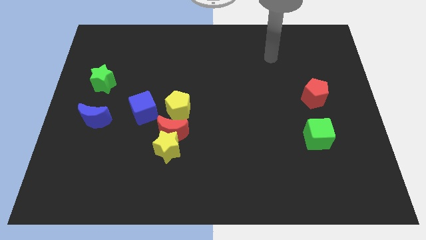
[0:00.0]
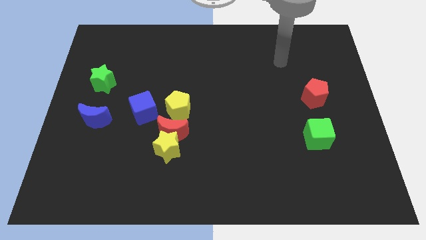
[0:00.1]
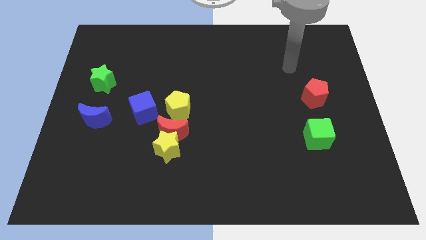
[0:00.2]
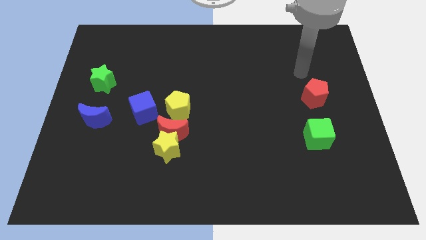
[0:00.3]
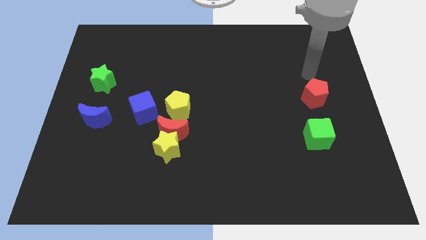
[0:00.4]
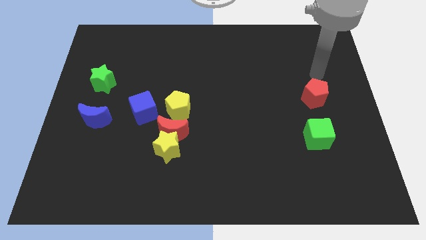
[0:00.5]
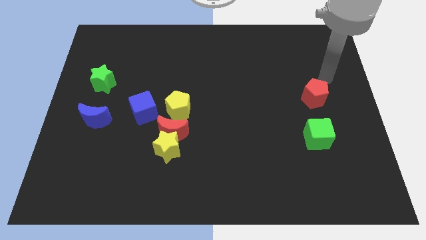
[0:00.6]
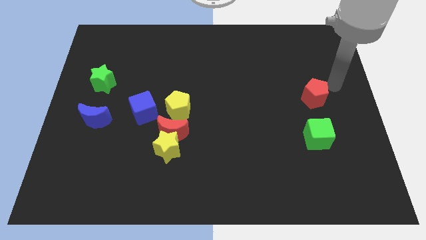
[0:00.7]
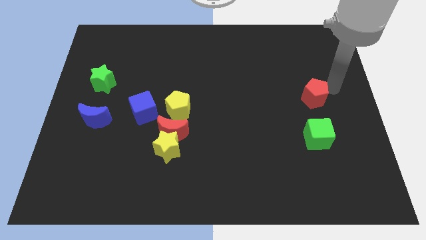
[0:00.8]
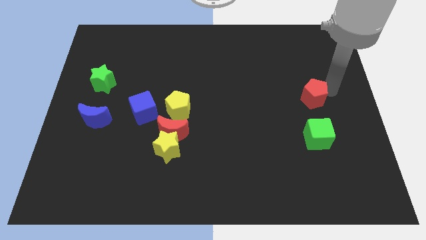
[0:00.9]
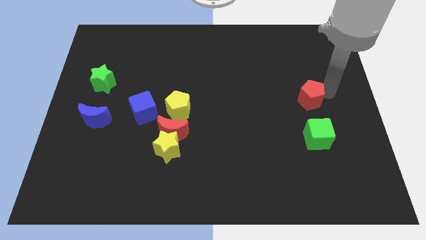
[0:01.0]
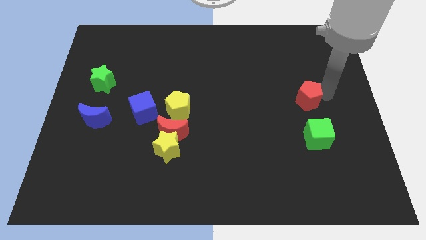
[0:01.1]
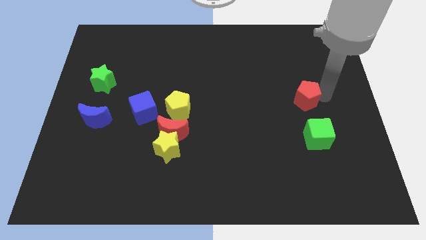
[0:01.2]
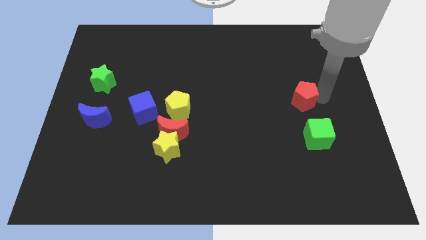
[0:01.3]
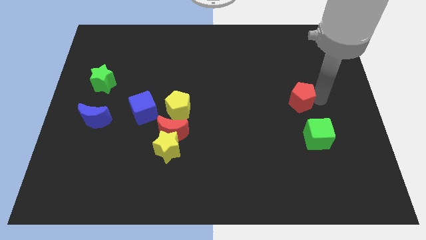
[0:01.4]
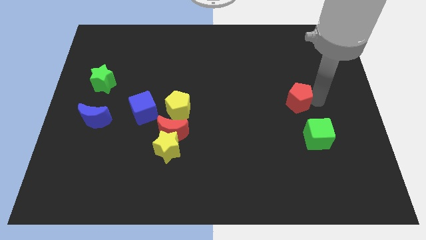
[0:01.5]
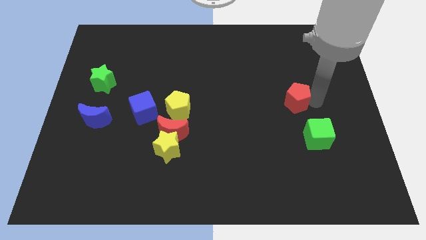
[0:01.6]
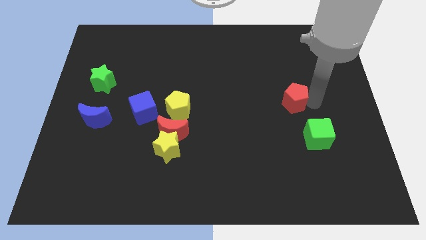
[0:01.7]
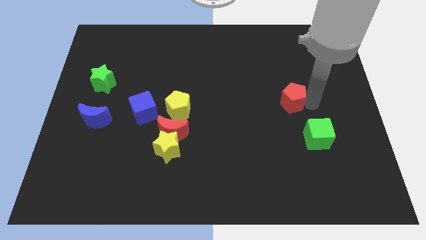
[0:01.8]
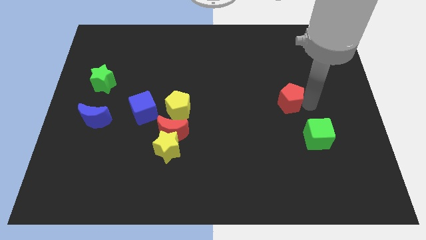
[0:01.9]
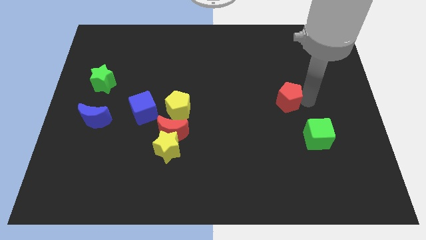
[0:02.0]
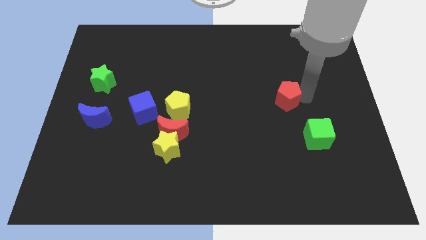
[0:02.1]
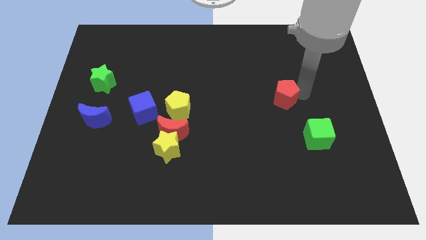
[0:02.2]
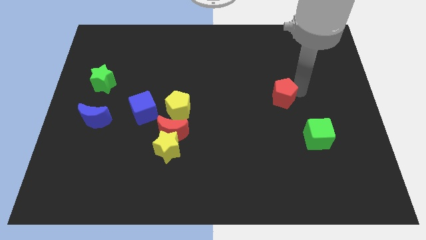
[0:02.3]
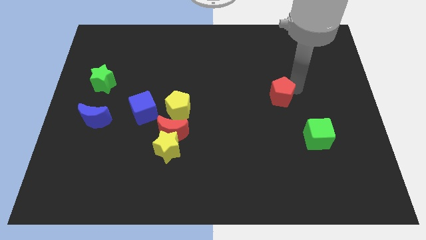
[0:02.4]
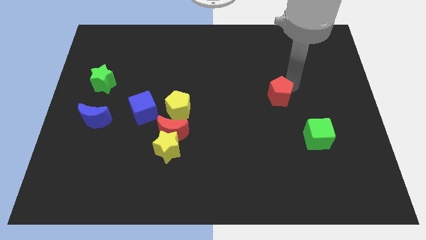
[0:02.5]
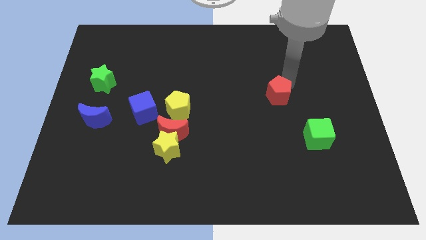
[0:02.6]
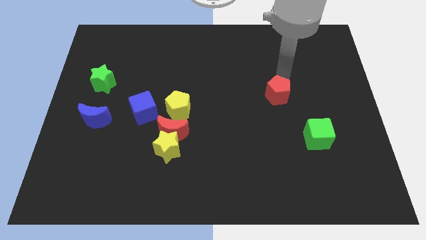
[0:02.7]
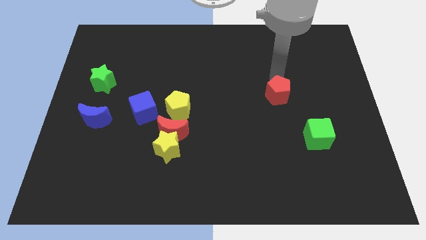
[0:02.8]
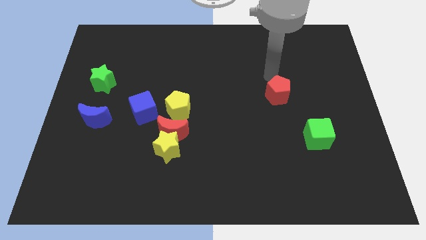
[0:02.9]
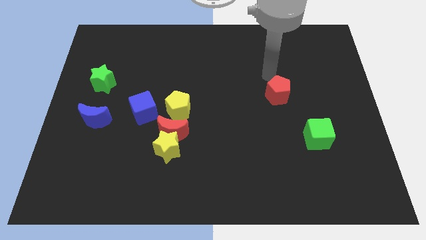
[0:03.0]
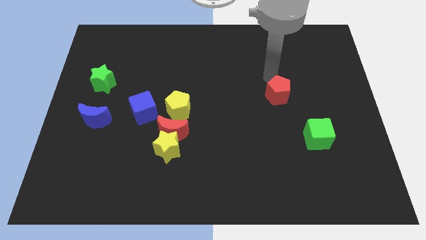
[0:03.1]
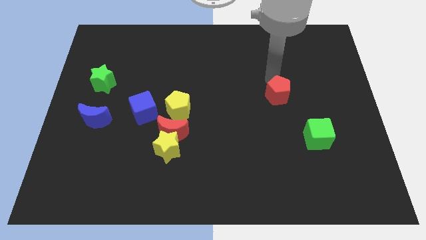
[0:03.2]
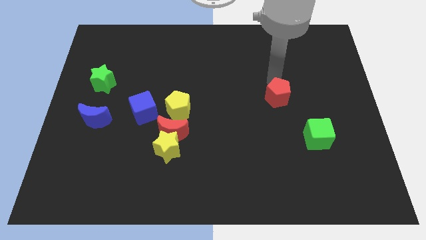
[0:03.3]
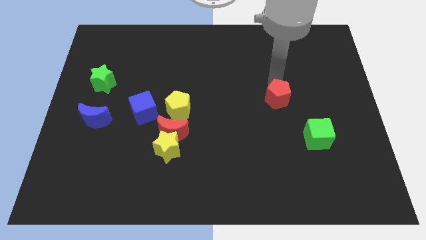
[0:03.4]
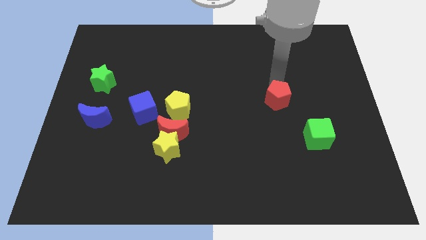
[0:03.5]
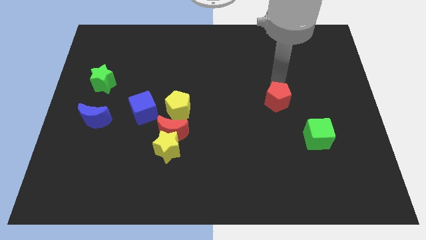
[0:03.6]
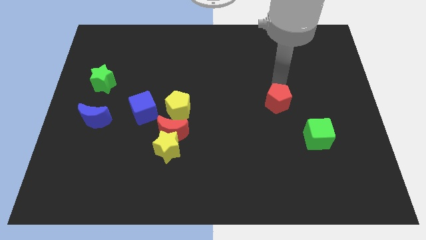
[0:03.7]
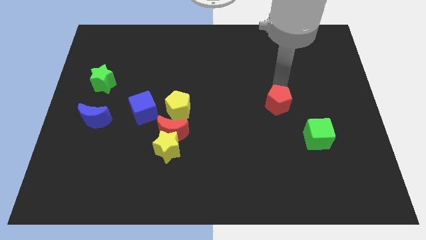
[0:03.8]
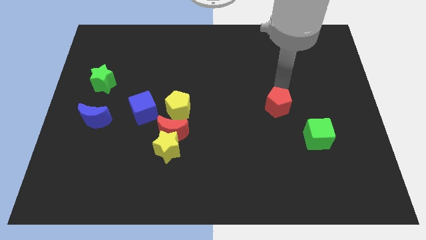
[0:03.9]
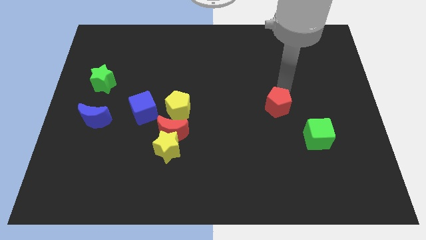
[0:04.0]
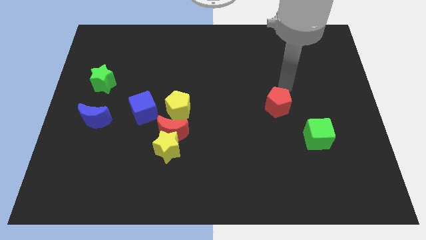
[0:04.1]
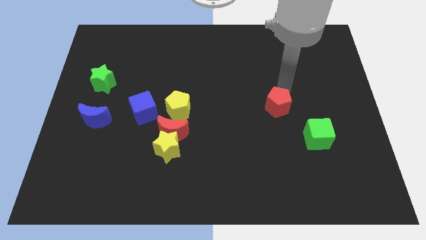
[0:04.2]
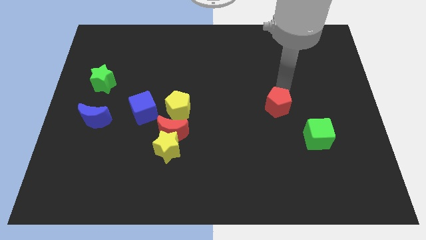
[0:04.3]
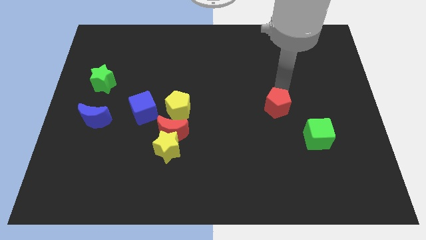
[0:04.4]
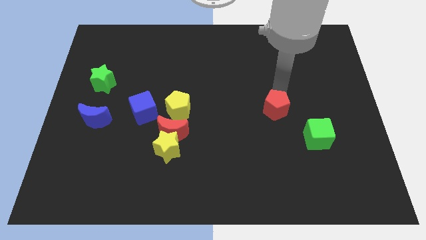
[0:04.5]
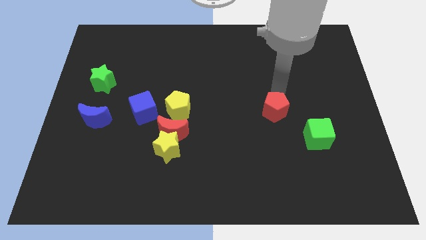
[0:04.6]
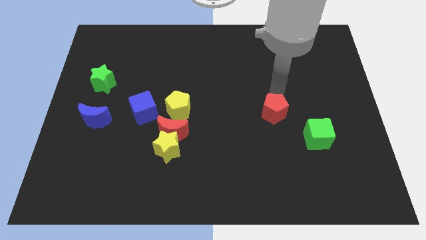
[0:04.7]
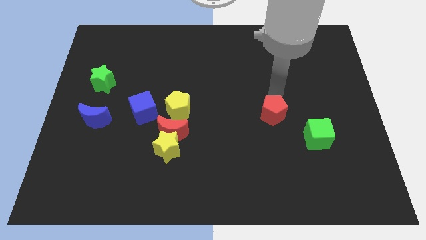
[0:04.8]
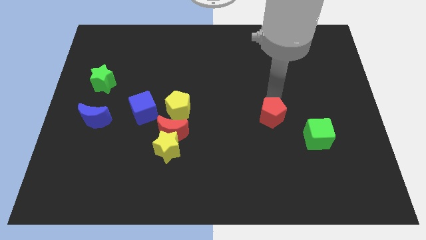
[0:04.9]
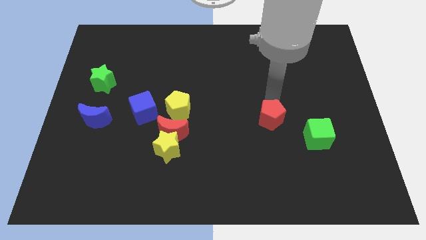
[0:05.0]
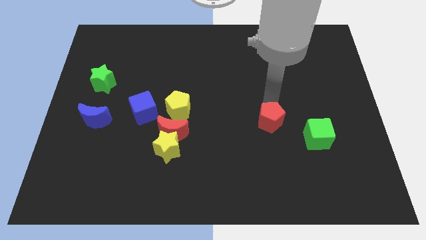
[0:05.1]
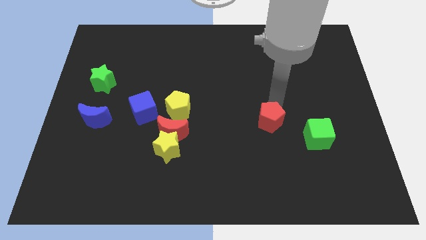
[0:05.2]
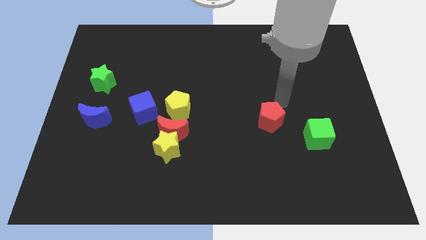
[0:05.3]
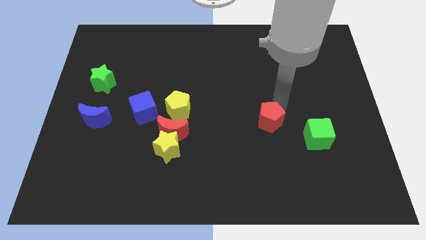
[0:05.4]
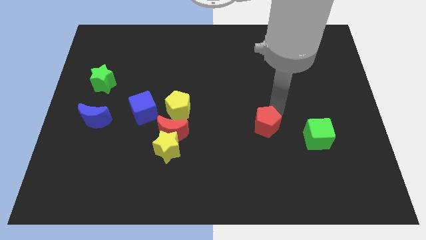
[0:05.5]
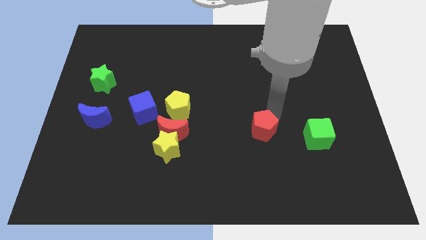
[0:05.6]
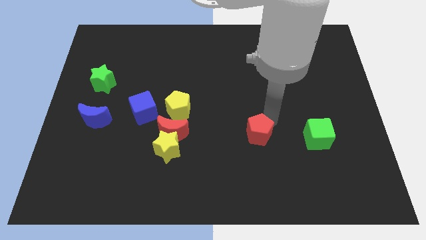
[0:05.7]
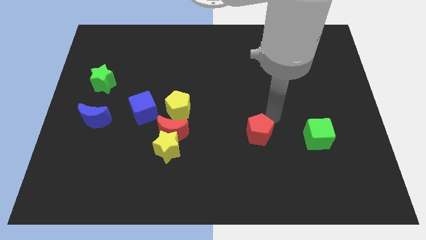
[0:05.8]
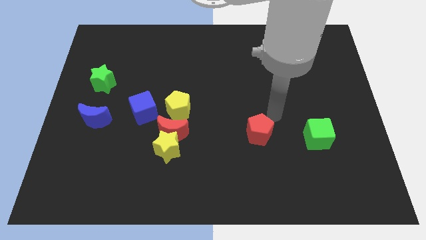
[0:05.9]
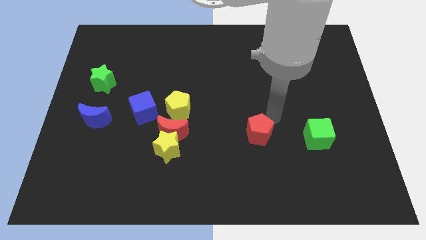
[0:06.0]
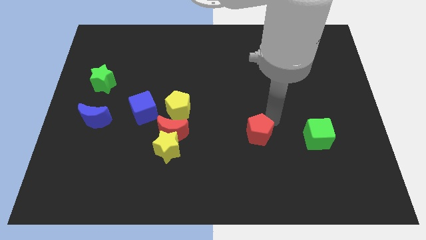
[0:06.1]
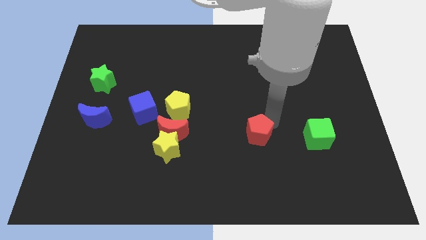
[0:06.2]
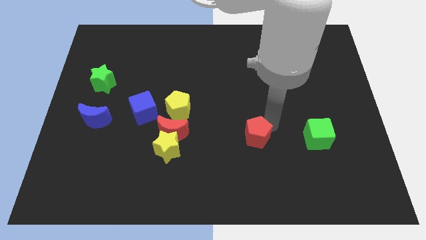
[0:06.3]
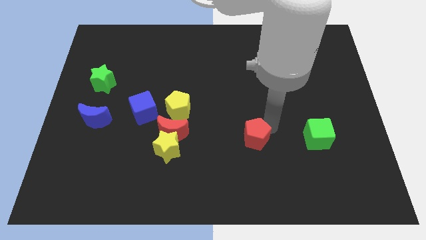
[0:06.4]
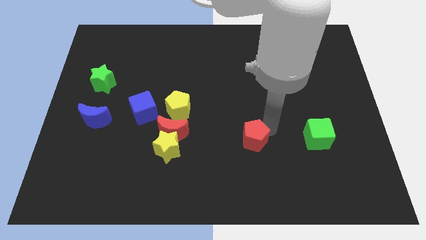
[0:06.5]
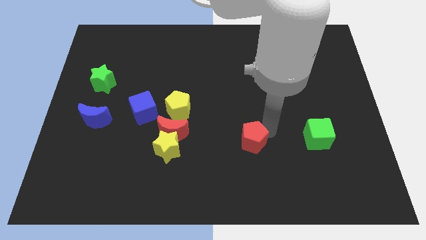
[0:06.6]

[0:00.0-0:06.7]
move the red pentagon downwards and to the left

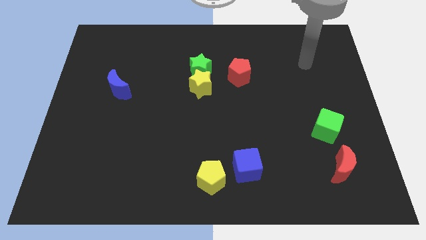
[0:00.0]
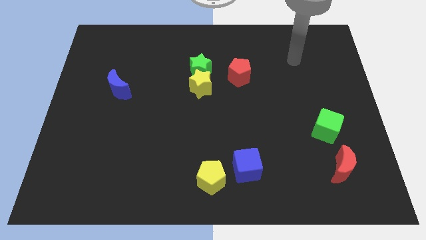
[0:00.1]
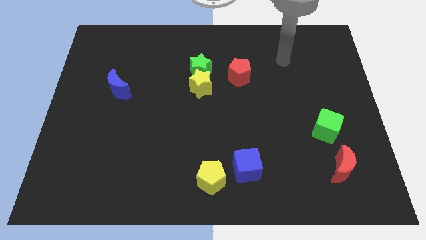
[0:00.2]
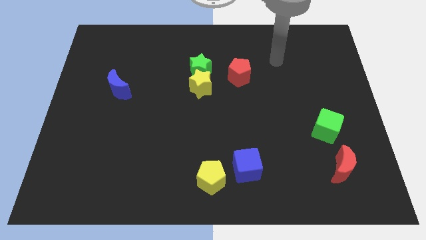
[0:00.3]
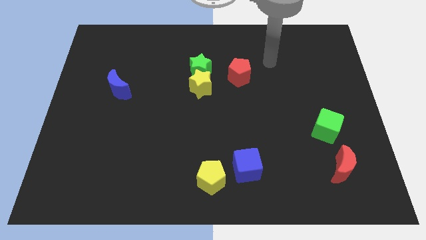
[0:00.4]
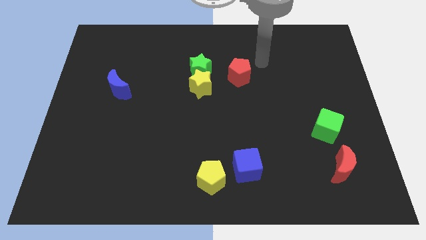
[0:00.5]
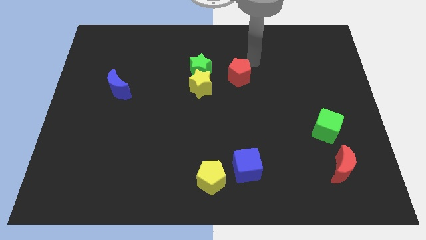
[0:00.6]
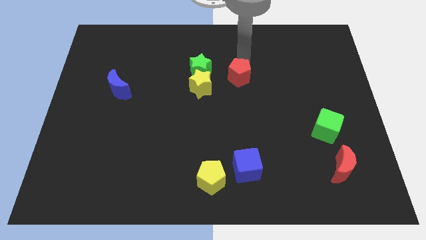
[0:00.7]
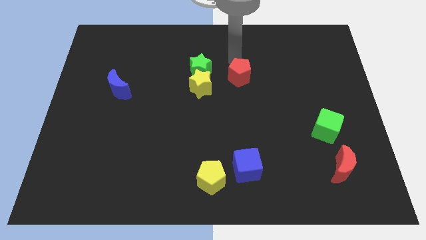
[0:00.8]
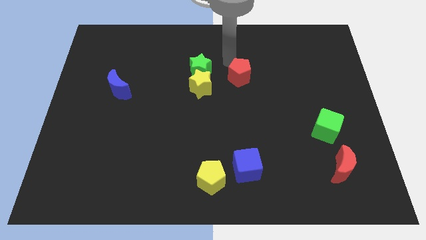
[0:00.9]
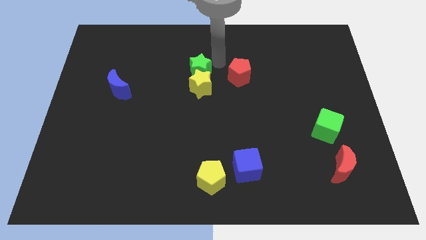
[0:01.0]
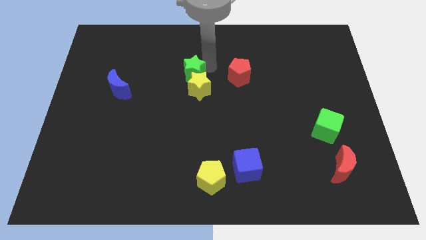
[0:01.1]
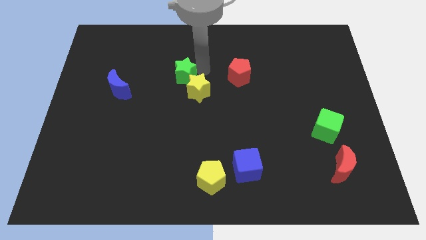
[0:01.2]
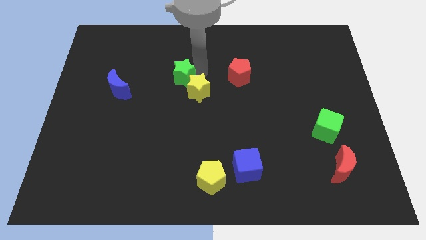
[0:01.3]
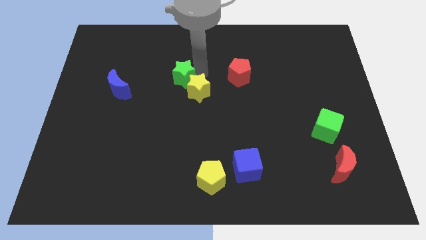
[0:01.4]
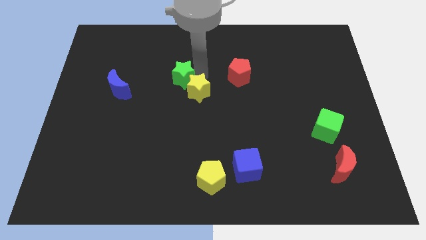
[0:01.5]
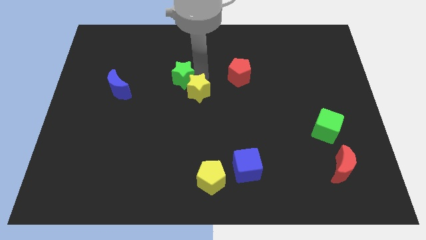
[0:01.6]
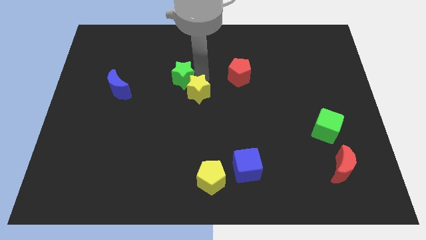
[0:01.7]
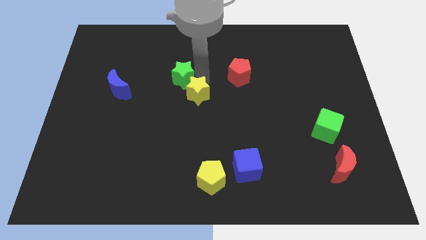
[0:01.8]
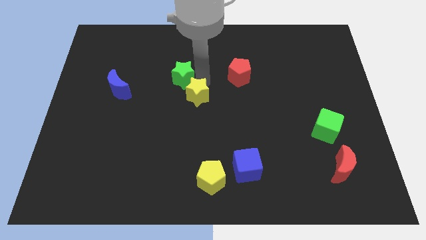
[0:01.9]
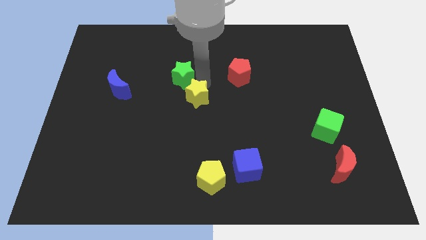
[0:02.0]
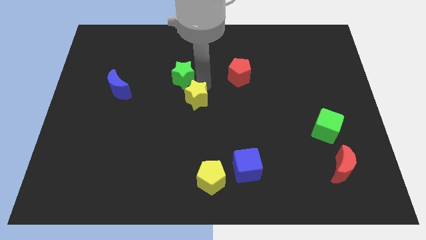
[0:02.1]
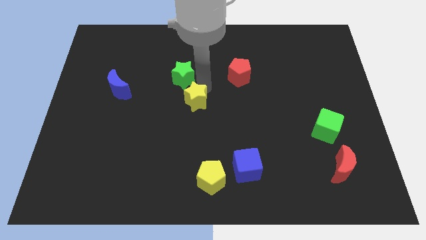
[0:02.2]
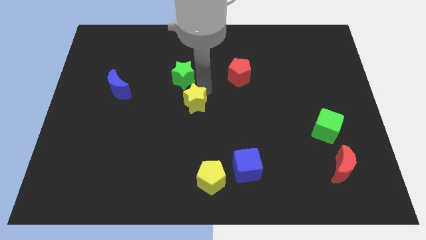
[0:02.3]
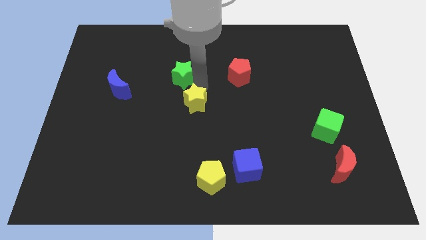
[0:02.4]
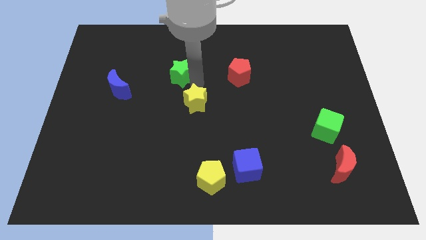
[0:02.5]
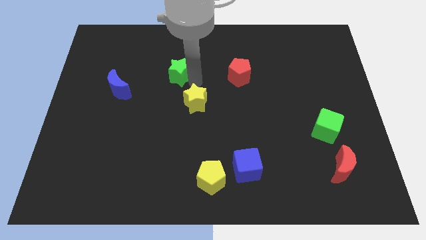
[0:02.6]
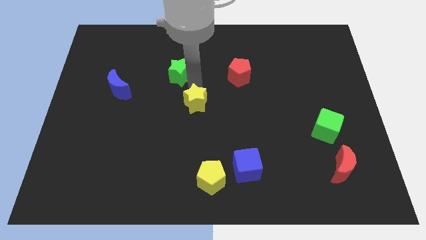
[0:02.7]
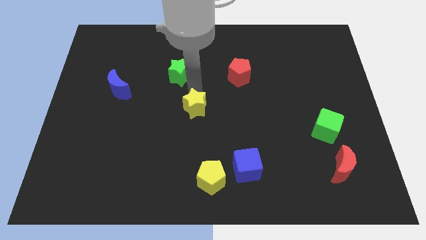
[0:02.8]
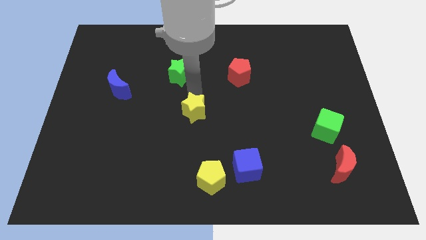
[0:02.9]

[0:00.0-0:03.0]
slightly move the yellow star downwards
